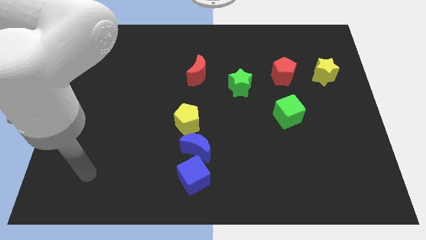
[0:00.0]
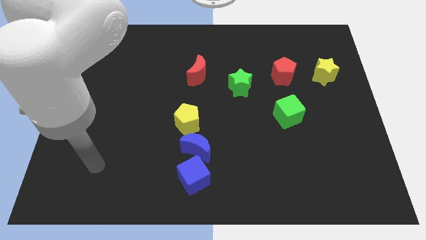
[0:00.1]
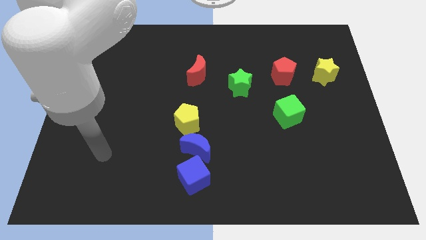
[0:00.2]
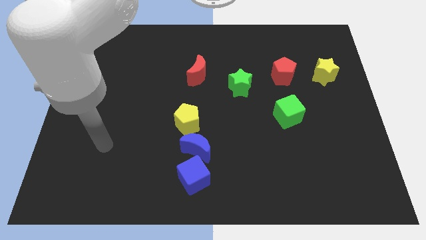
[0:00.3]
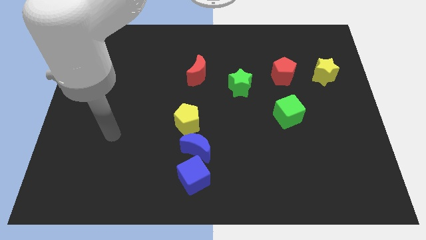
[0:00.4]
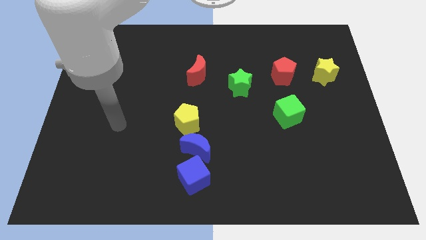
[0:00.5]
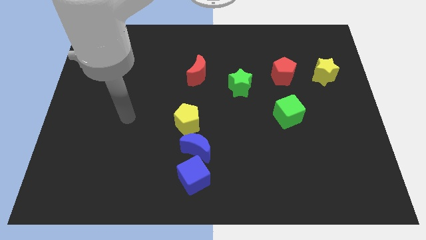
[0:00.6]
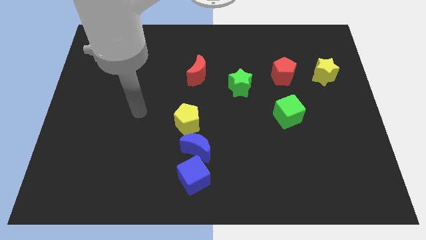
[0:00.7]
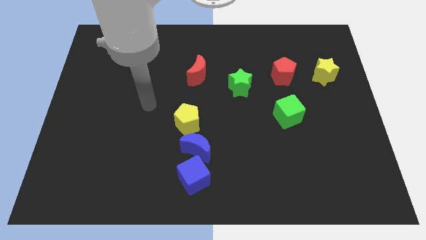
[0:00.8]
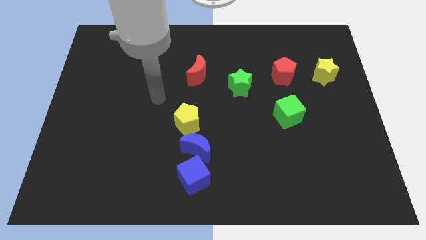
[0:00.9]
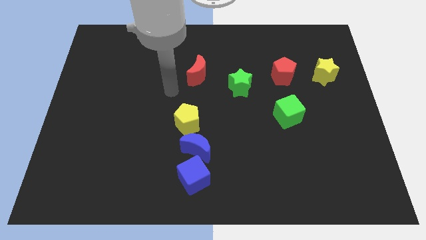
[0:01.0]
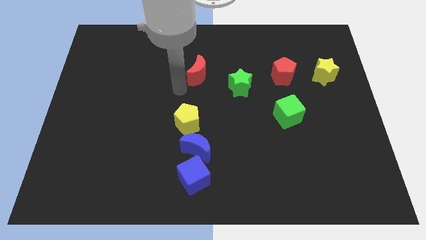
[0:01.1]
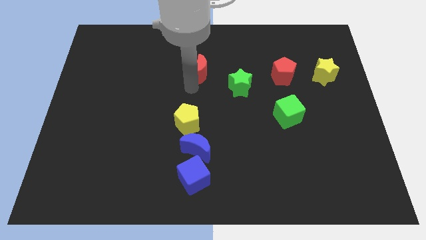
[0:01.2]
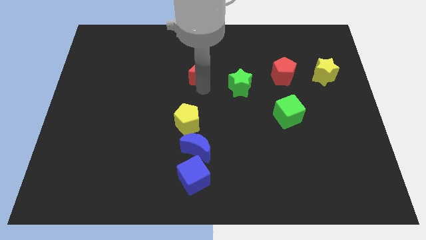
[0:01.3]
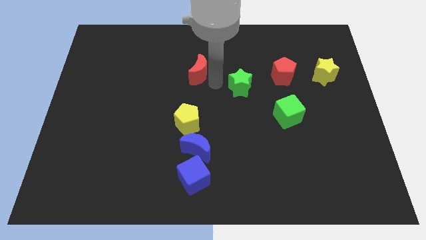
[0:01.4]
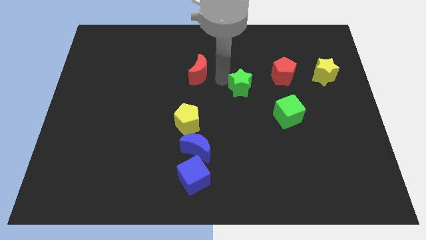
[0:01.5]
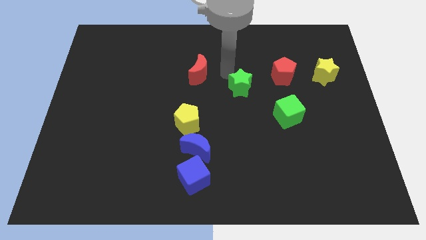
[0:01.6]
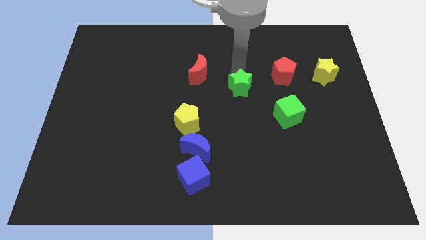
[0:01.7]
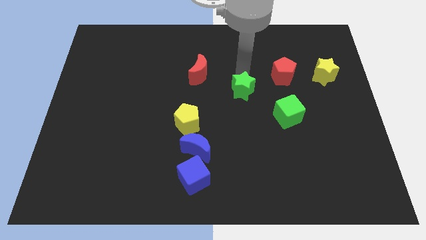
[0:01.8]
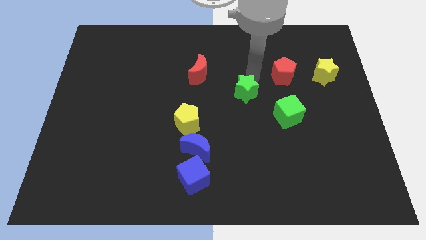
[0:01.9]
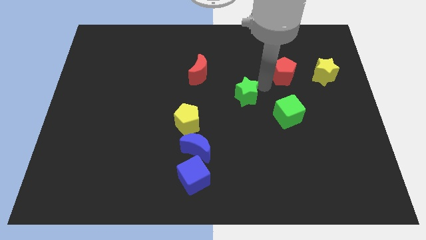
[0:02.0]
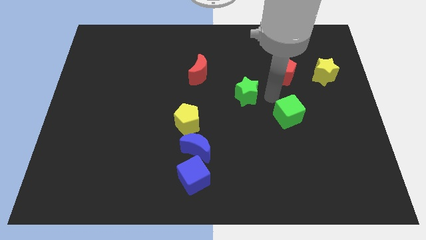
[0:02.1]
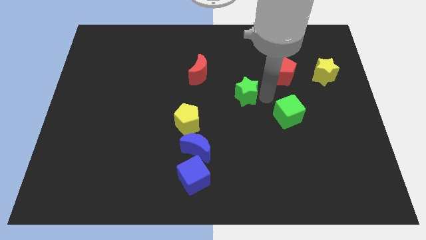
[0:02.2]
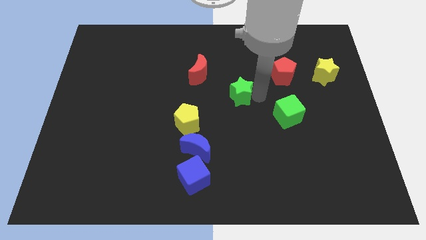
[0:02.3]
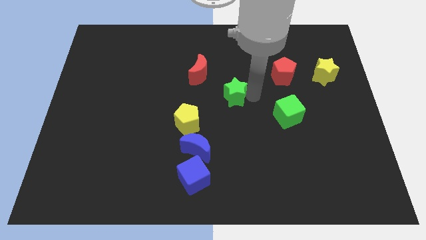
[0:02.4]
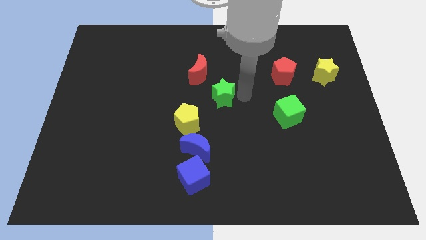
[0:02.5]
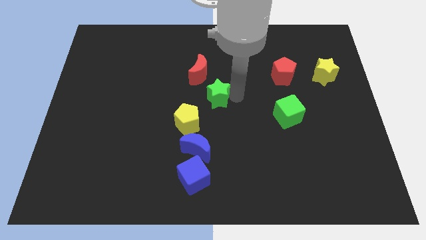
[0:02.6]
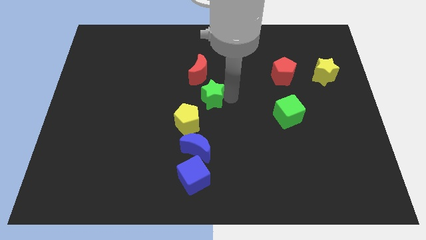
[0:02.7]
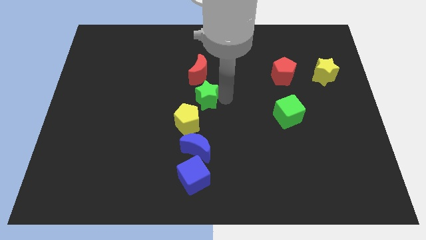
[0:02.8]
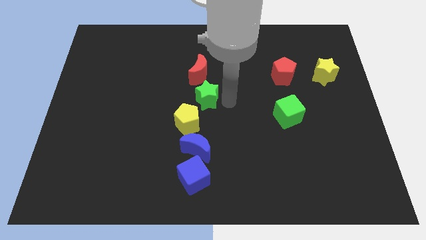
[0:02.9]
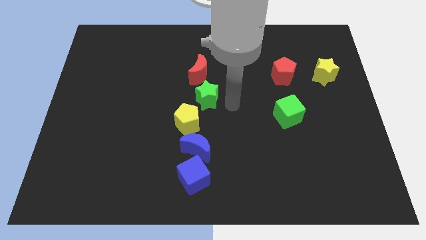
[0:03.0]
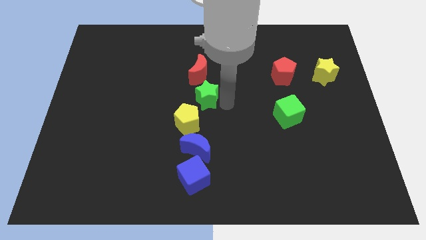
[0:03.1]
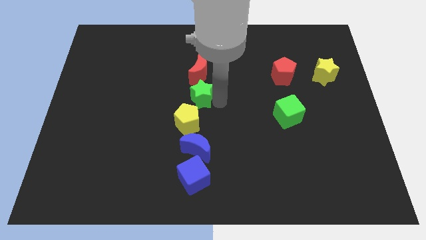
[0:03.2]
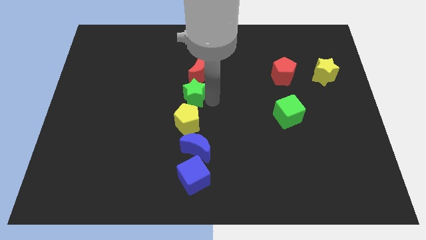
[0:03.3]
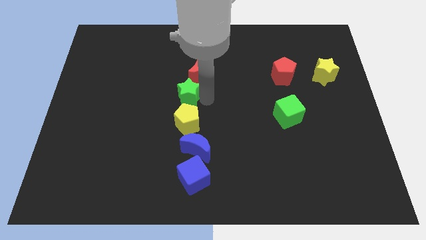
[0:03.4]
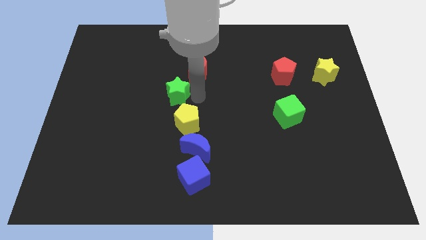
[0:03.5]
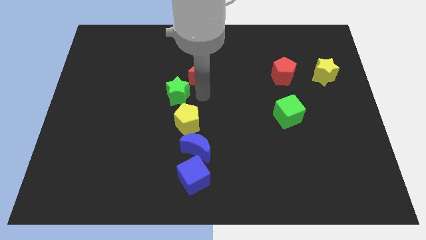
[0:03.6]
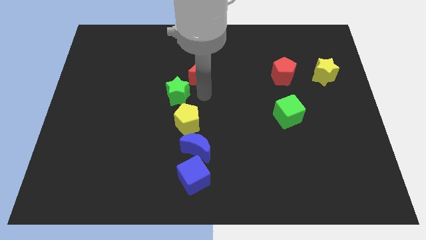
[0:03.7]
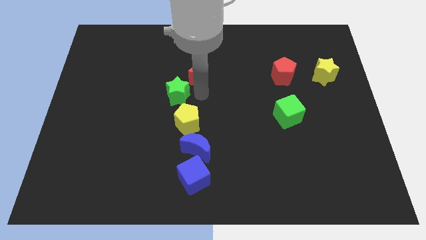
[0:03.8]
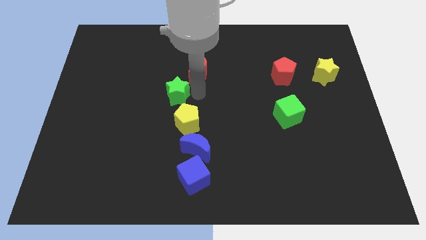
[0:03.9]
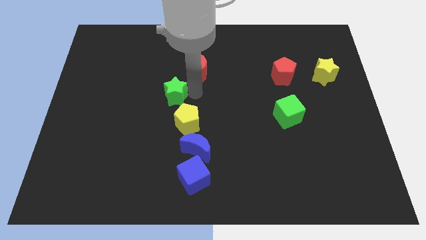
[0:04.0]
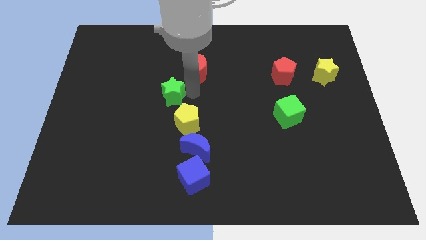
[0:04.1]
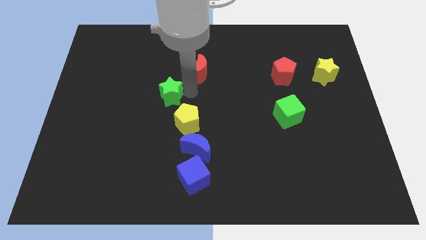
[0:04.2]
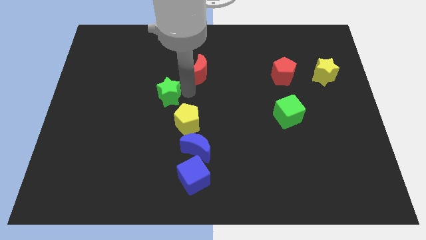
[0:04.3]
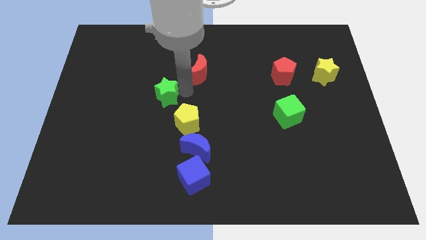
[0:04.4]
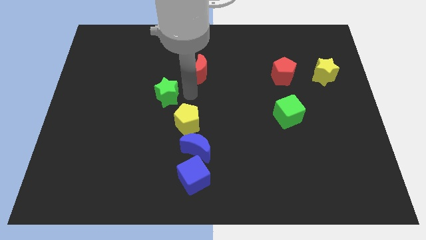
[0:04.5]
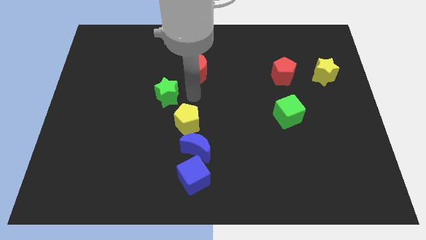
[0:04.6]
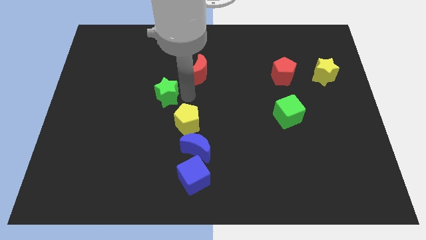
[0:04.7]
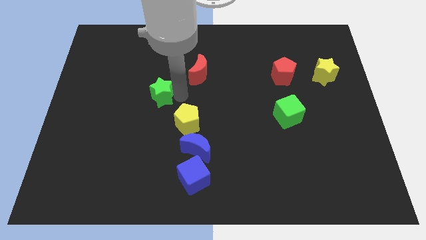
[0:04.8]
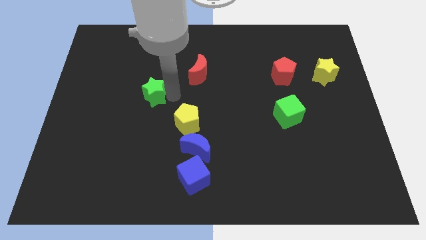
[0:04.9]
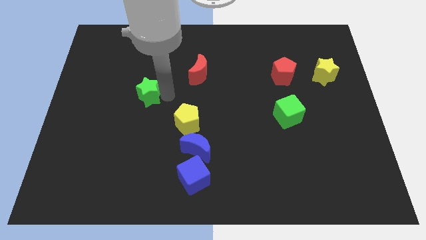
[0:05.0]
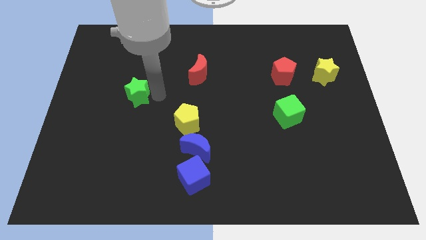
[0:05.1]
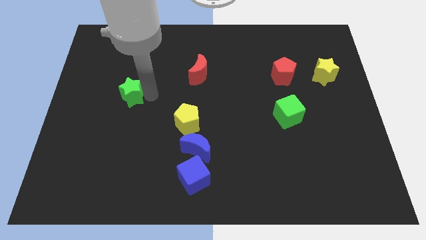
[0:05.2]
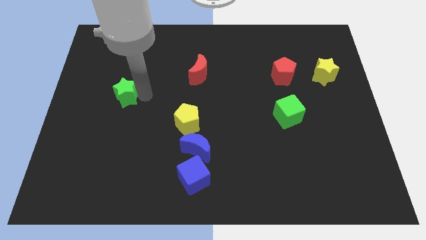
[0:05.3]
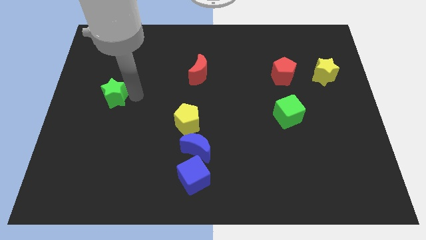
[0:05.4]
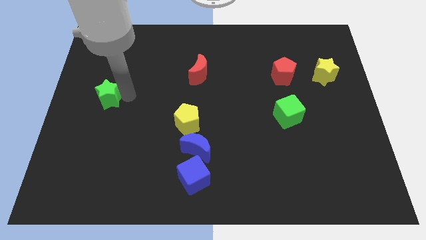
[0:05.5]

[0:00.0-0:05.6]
put the green star to the center left

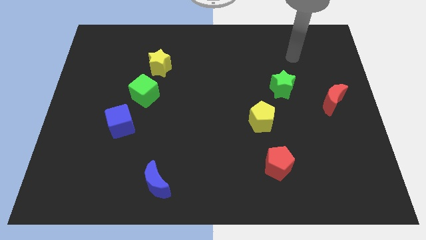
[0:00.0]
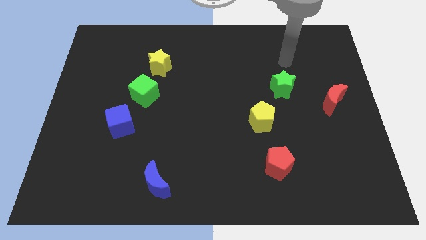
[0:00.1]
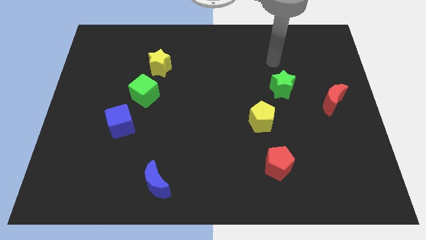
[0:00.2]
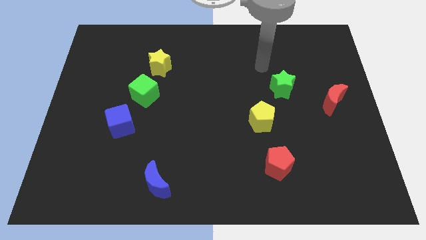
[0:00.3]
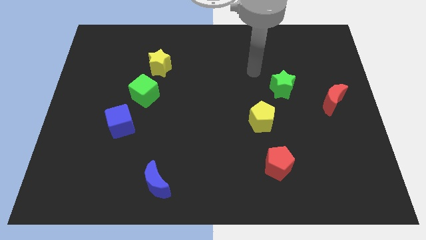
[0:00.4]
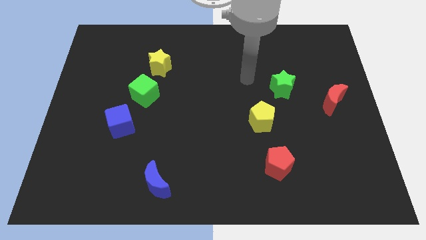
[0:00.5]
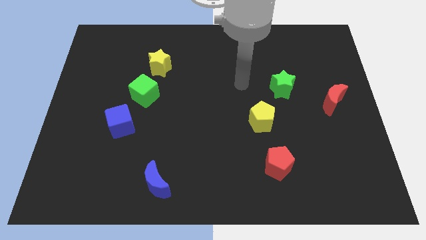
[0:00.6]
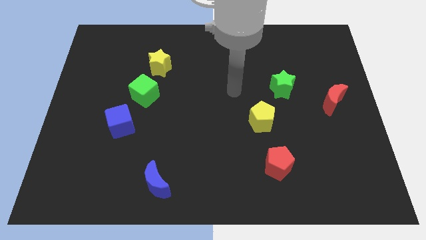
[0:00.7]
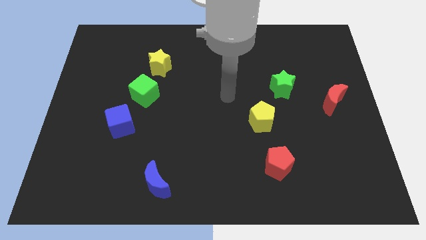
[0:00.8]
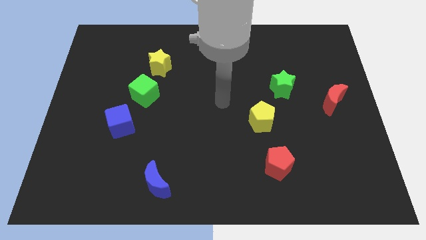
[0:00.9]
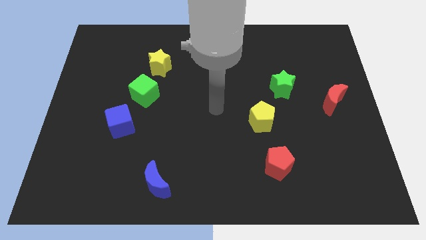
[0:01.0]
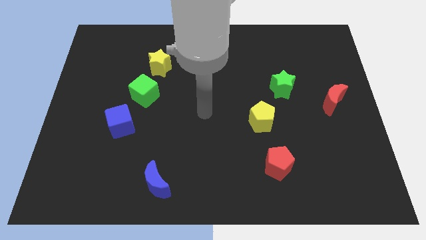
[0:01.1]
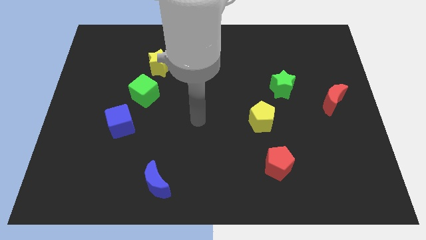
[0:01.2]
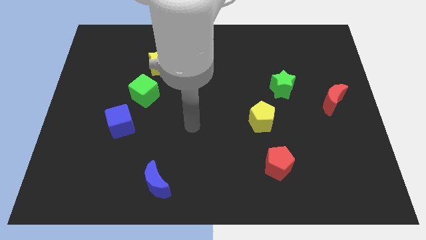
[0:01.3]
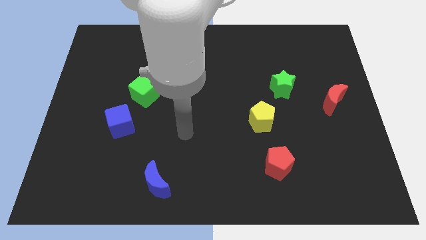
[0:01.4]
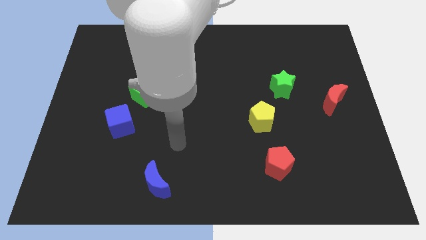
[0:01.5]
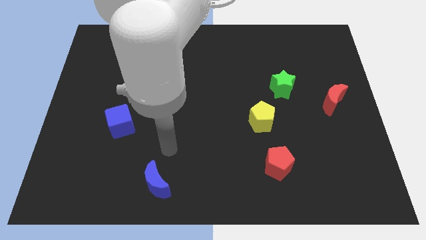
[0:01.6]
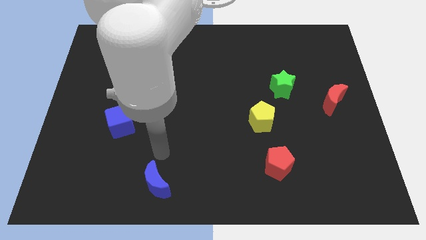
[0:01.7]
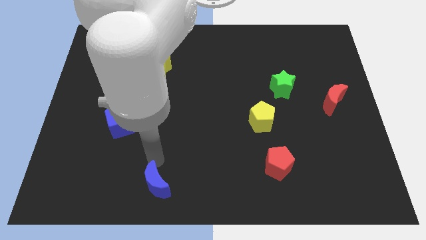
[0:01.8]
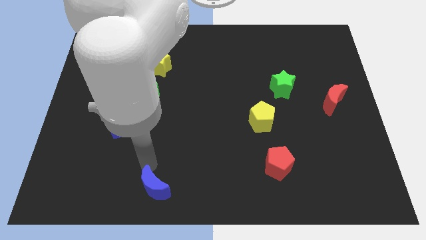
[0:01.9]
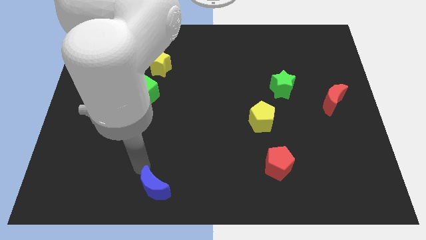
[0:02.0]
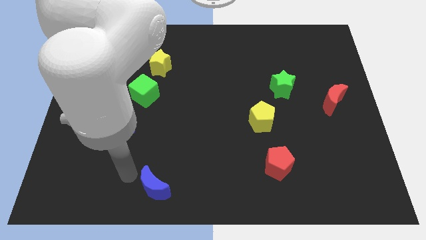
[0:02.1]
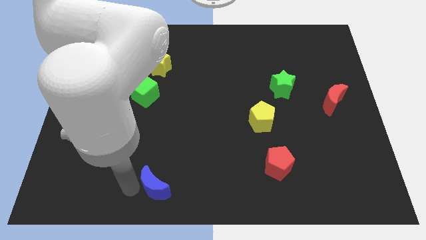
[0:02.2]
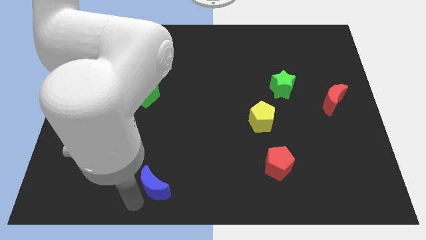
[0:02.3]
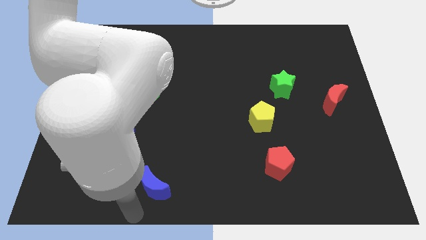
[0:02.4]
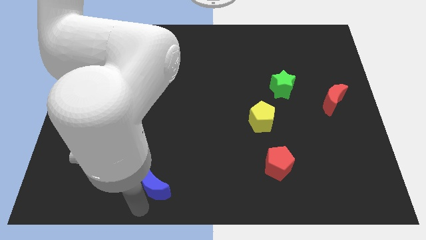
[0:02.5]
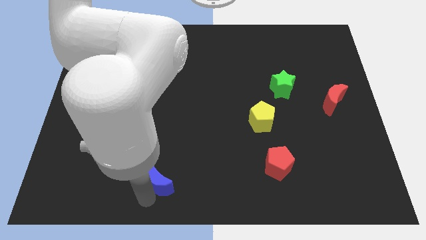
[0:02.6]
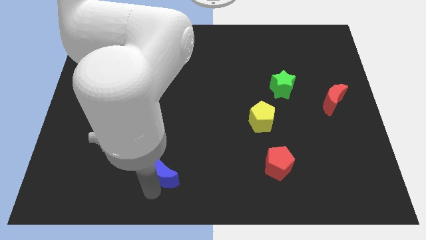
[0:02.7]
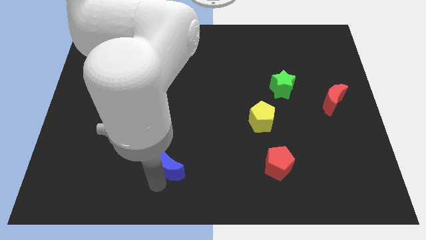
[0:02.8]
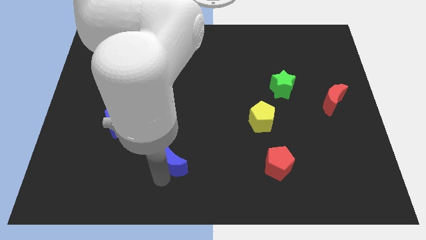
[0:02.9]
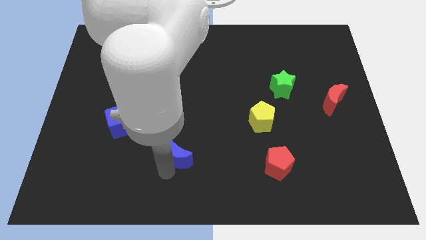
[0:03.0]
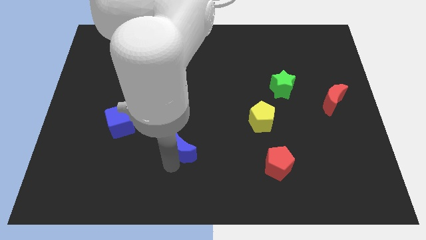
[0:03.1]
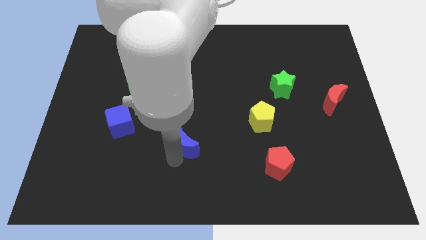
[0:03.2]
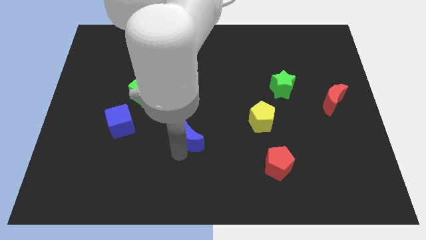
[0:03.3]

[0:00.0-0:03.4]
push the blue moon to the center of the board
